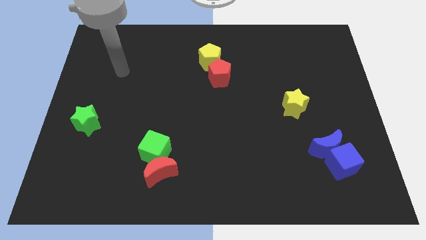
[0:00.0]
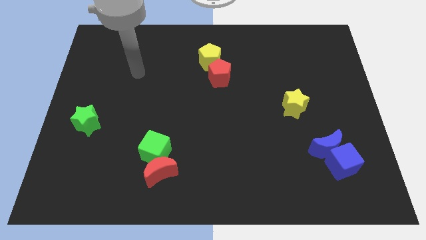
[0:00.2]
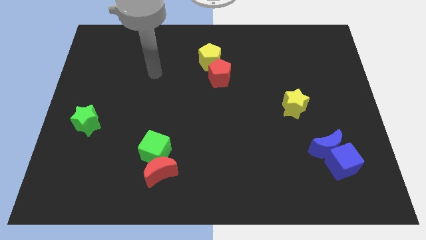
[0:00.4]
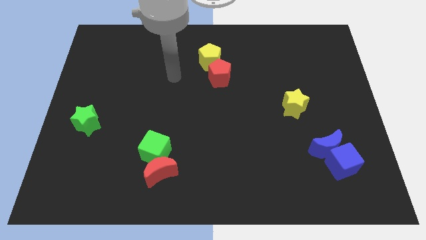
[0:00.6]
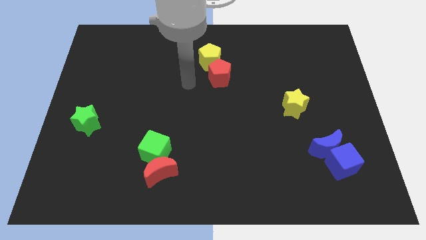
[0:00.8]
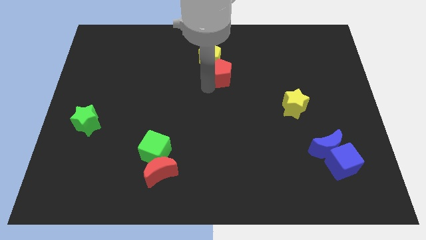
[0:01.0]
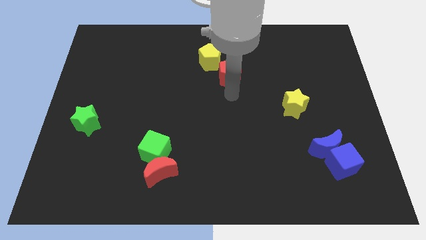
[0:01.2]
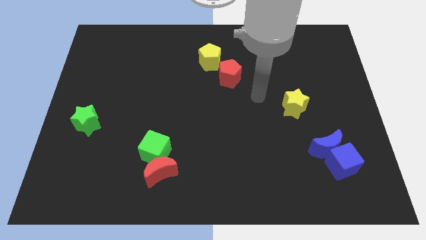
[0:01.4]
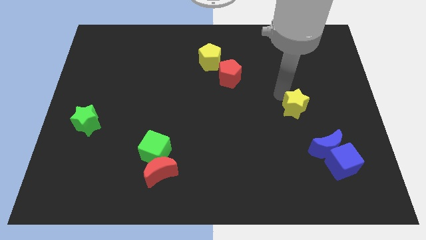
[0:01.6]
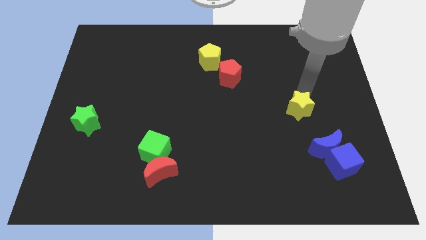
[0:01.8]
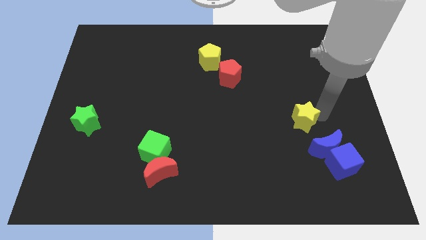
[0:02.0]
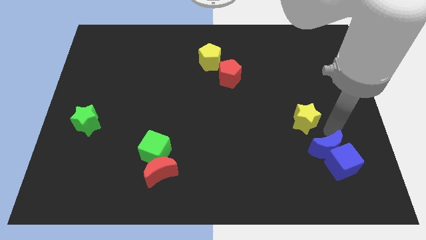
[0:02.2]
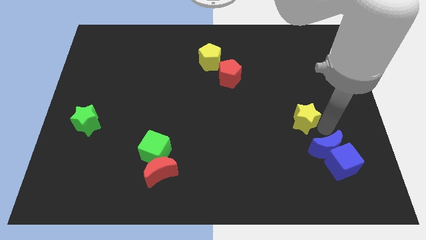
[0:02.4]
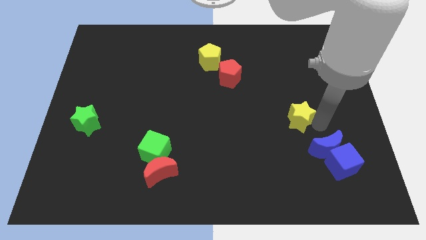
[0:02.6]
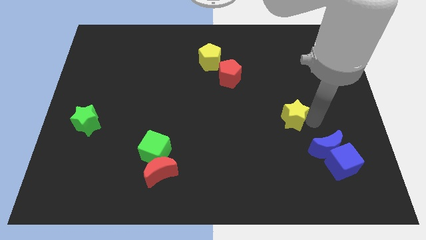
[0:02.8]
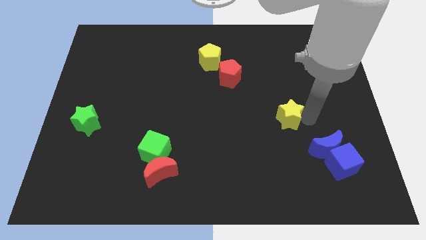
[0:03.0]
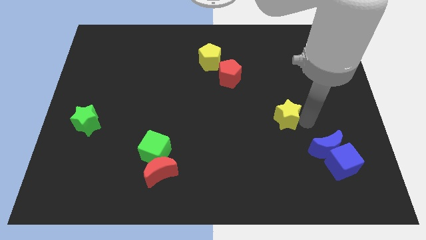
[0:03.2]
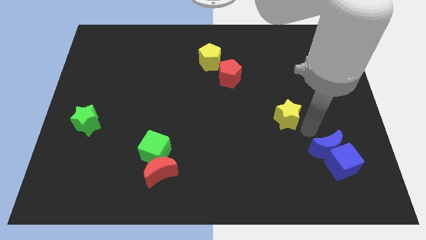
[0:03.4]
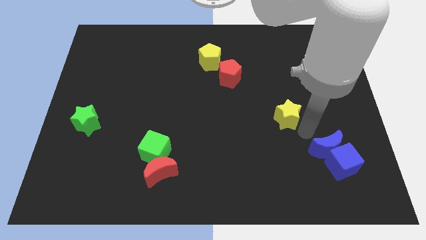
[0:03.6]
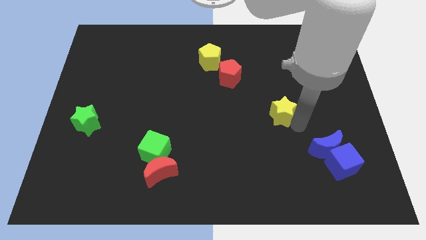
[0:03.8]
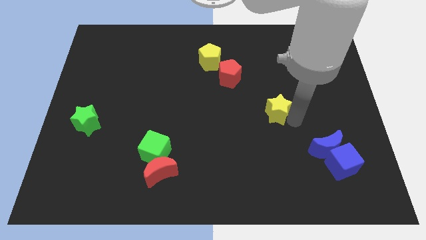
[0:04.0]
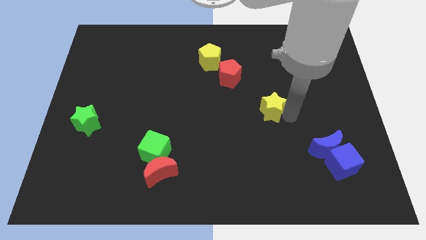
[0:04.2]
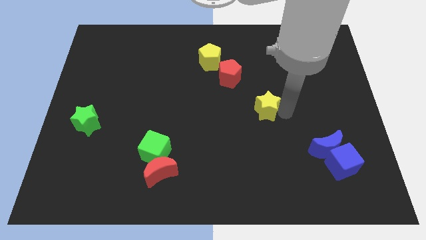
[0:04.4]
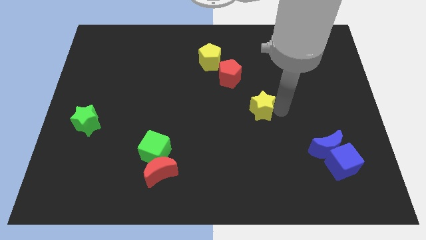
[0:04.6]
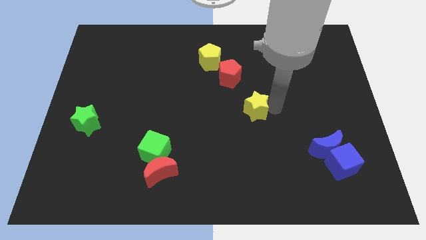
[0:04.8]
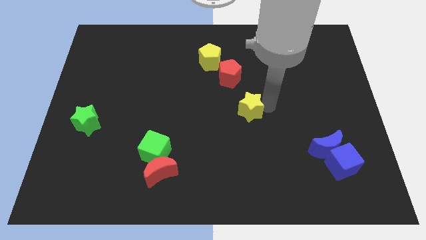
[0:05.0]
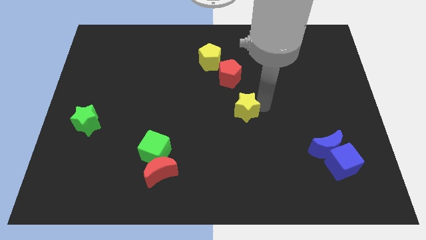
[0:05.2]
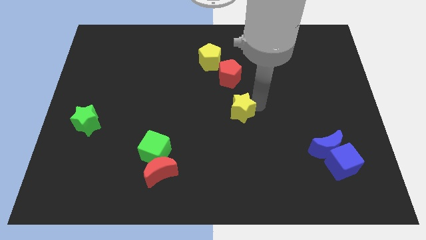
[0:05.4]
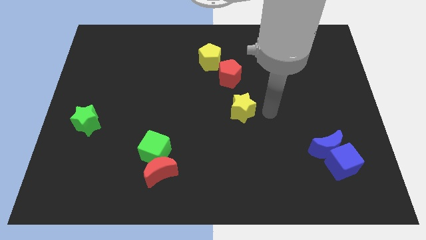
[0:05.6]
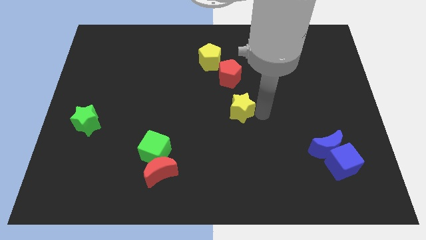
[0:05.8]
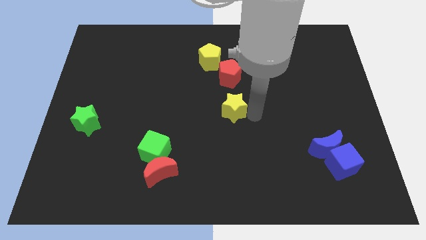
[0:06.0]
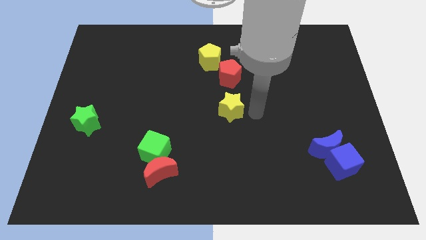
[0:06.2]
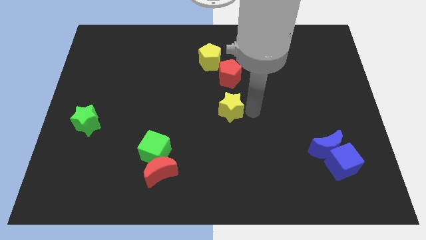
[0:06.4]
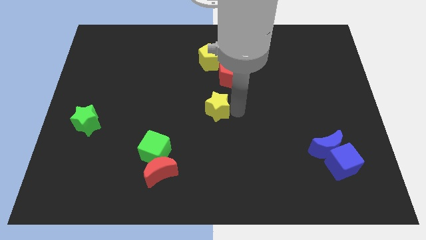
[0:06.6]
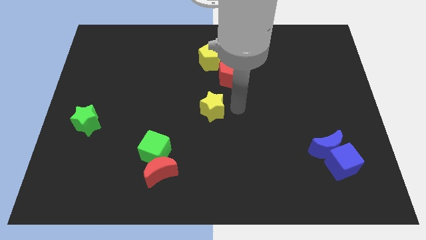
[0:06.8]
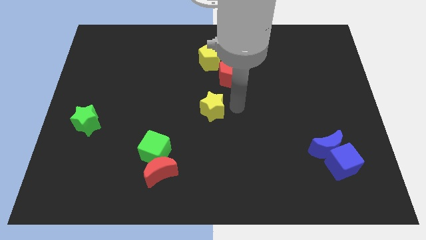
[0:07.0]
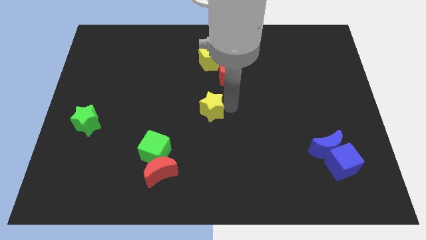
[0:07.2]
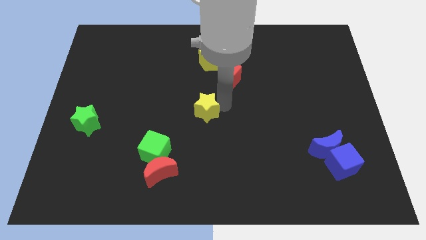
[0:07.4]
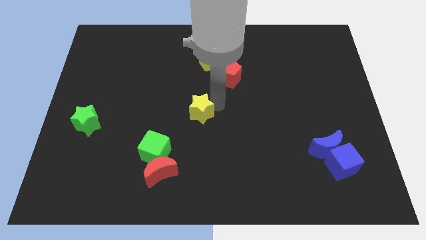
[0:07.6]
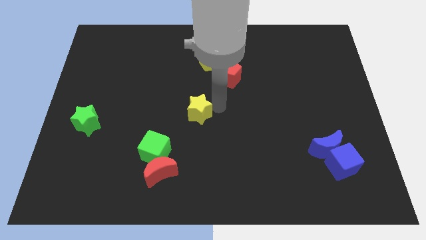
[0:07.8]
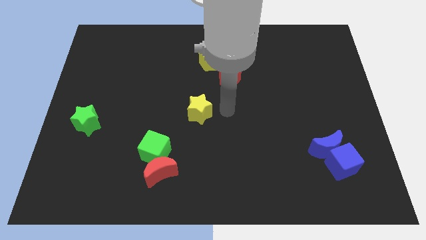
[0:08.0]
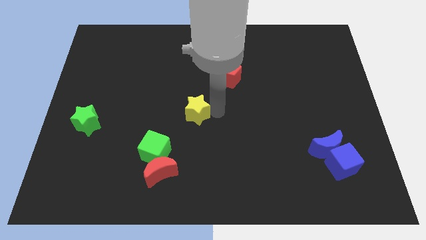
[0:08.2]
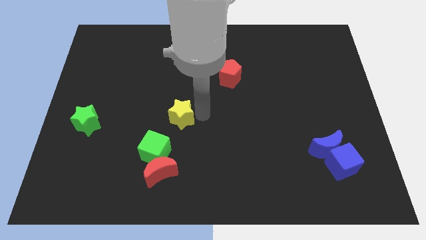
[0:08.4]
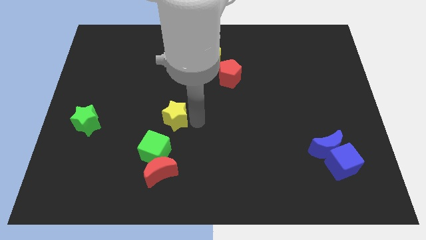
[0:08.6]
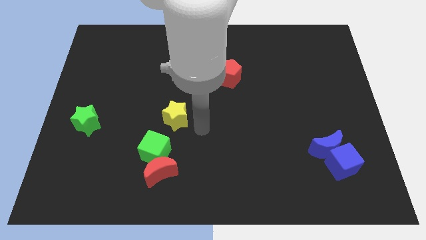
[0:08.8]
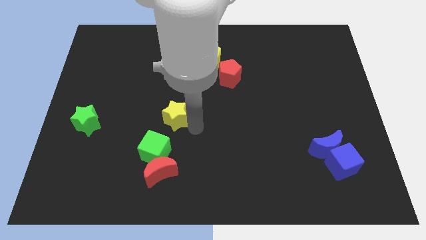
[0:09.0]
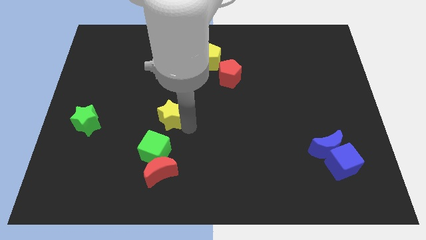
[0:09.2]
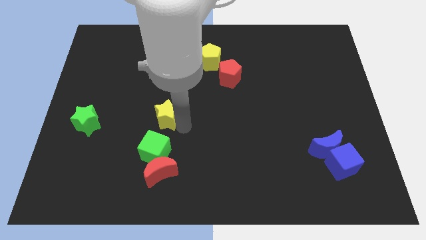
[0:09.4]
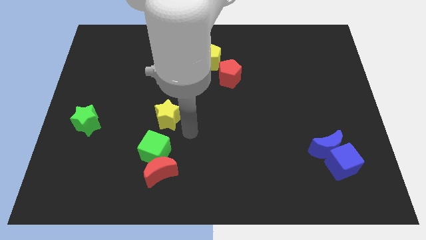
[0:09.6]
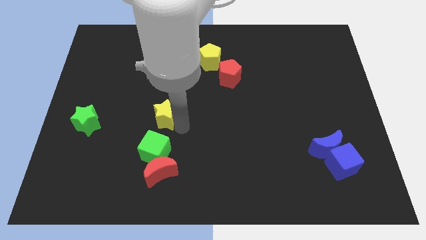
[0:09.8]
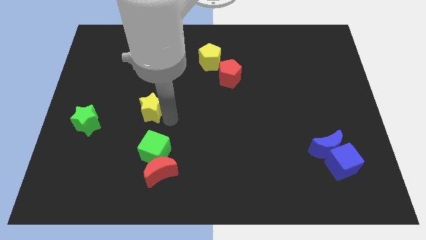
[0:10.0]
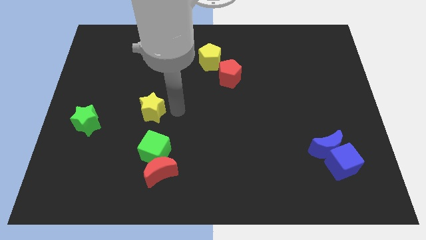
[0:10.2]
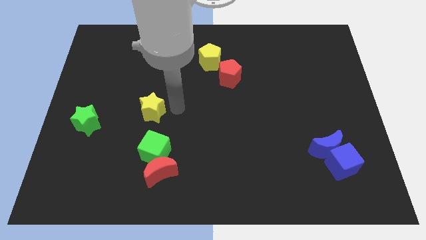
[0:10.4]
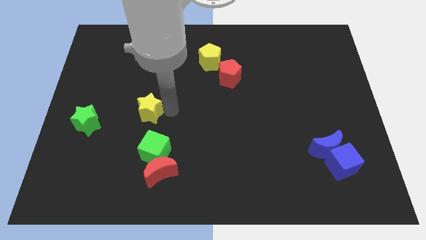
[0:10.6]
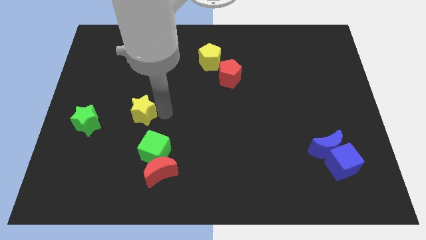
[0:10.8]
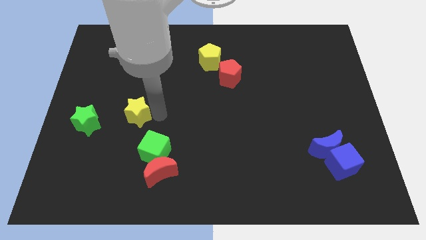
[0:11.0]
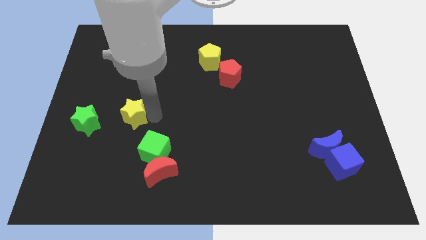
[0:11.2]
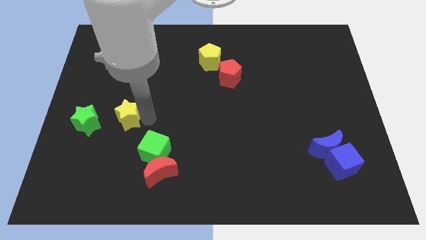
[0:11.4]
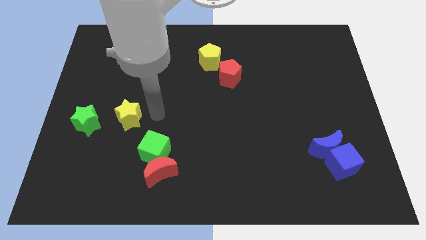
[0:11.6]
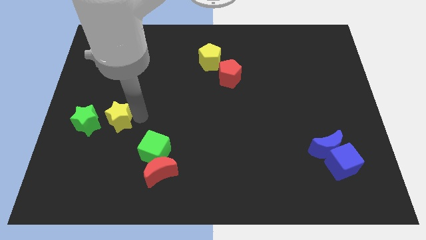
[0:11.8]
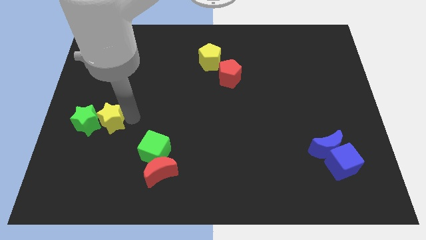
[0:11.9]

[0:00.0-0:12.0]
move the yellow star close to the green star

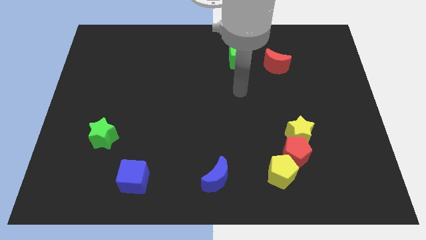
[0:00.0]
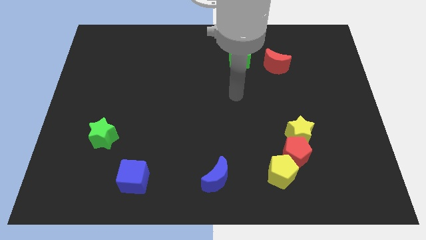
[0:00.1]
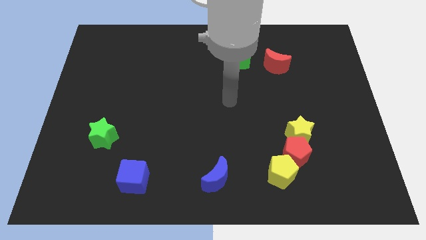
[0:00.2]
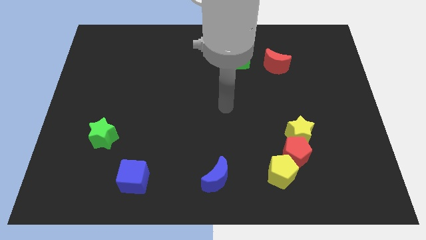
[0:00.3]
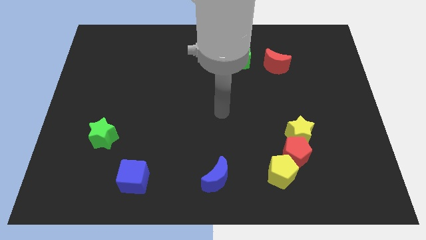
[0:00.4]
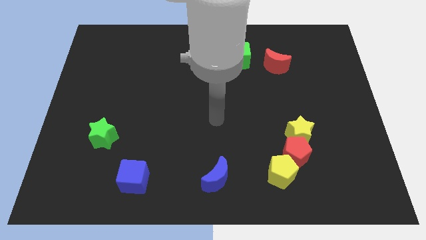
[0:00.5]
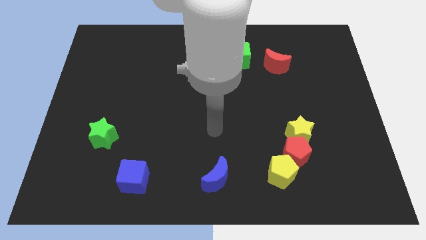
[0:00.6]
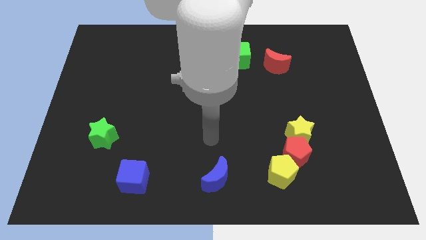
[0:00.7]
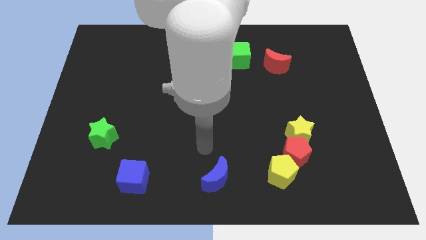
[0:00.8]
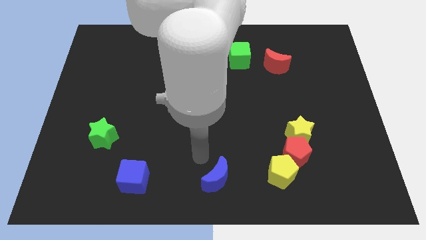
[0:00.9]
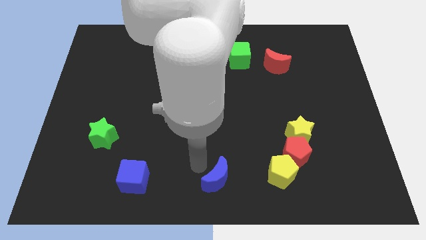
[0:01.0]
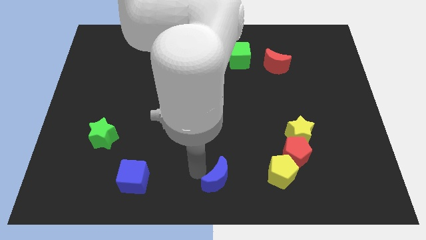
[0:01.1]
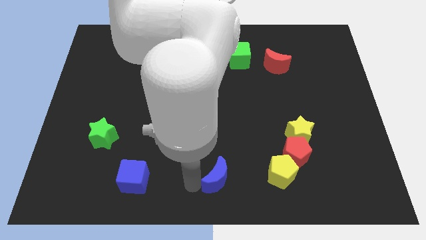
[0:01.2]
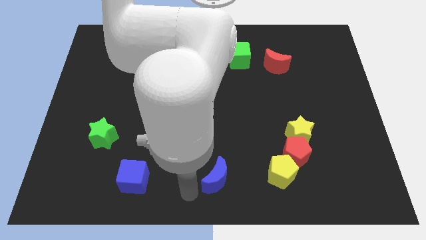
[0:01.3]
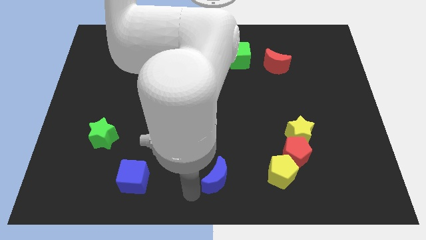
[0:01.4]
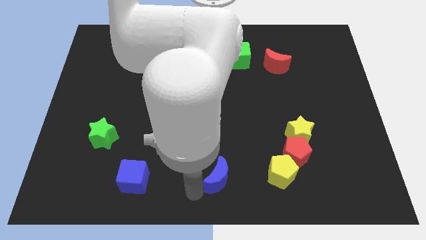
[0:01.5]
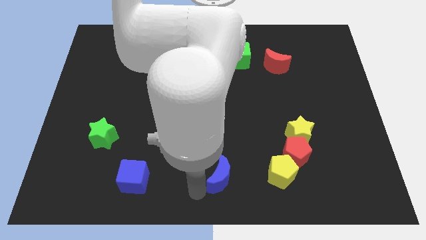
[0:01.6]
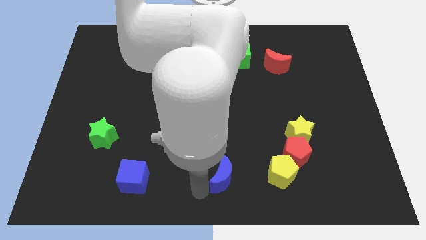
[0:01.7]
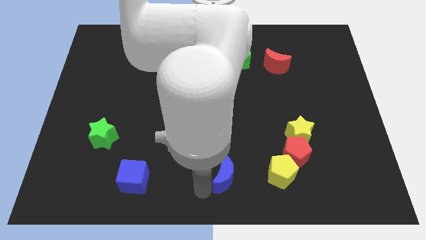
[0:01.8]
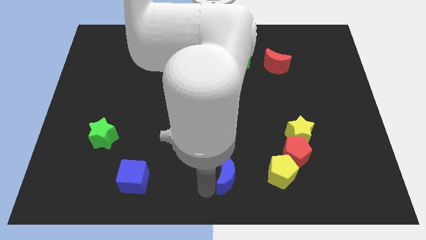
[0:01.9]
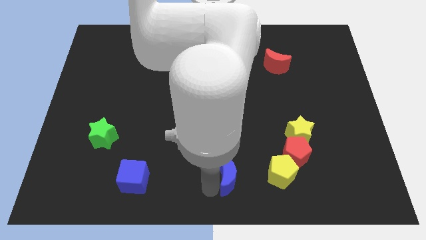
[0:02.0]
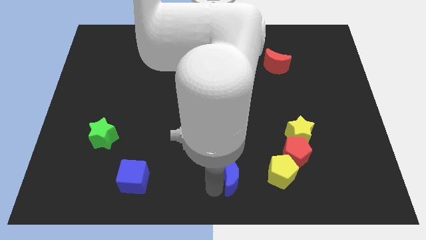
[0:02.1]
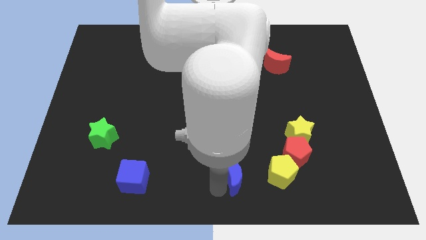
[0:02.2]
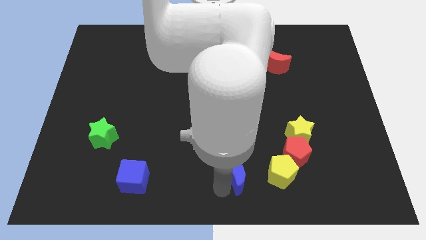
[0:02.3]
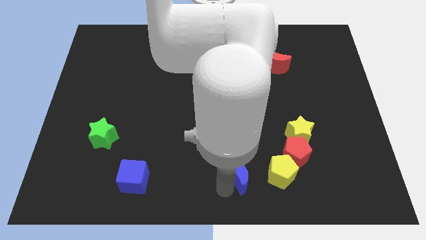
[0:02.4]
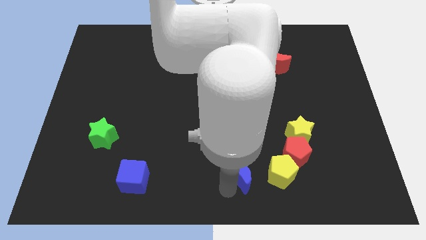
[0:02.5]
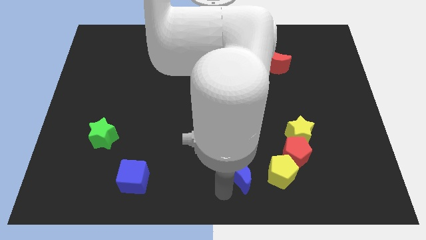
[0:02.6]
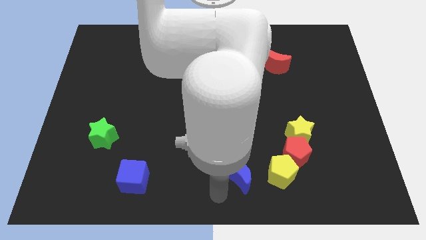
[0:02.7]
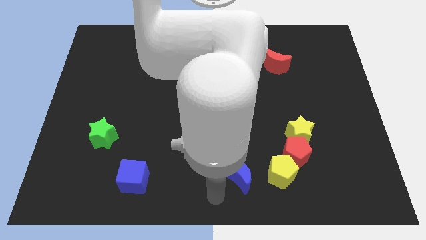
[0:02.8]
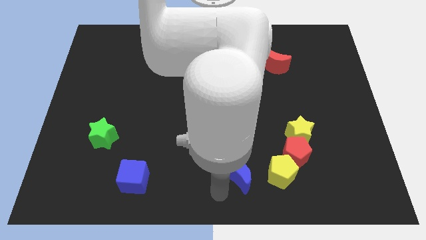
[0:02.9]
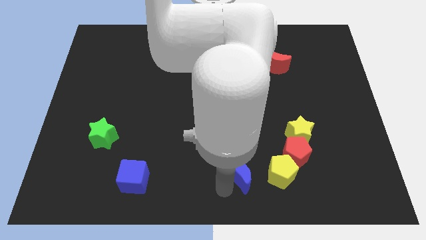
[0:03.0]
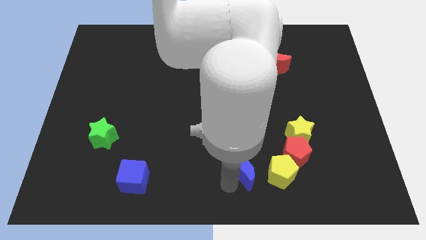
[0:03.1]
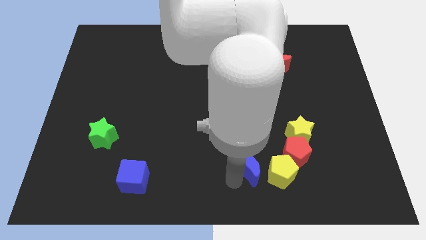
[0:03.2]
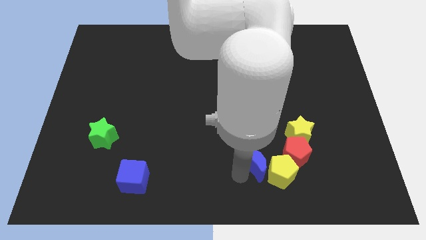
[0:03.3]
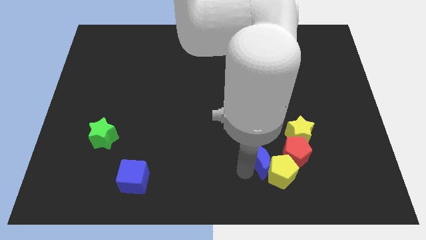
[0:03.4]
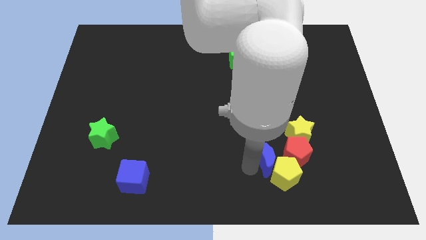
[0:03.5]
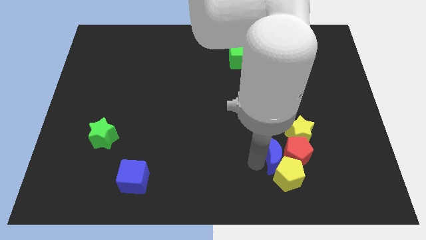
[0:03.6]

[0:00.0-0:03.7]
move the blue moon to the red pentagon
